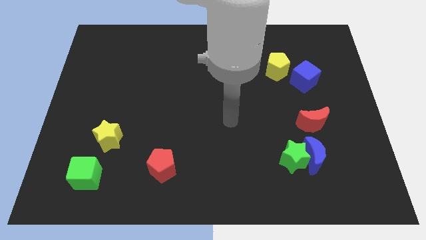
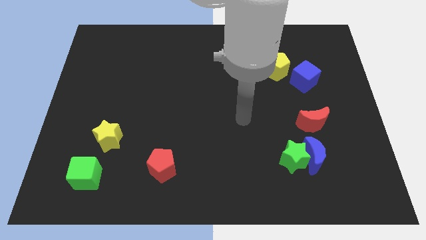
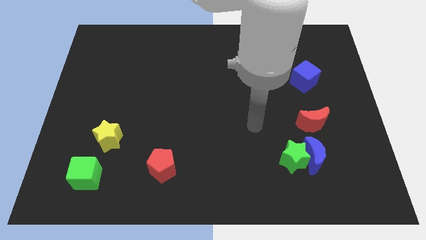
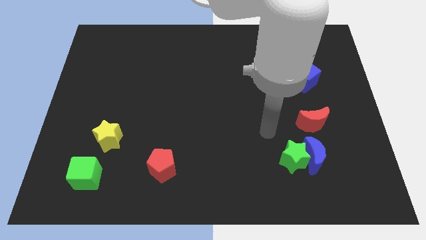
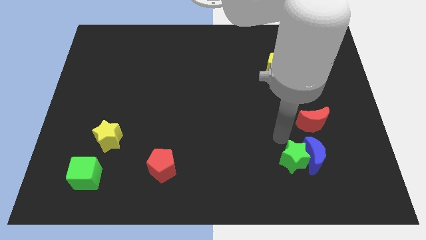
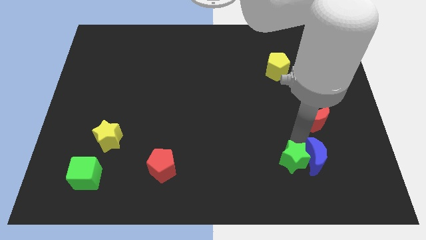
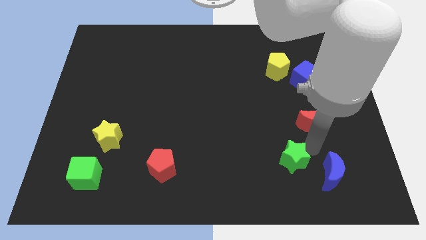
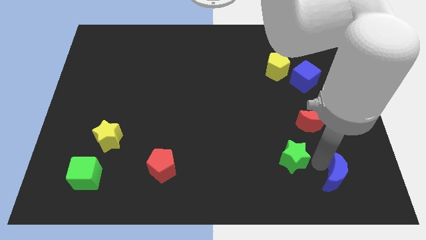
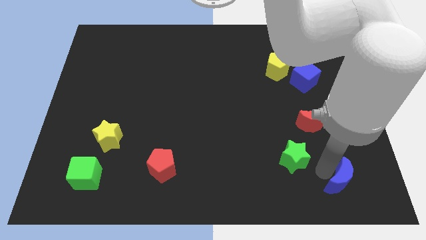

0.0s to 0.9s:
separate the green star from the blue moon

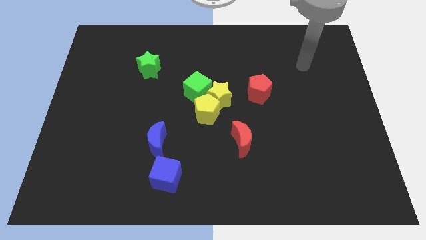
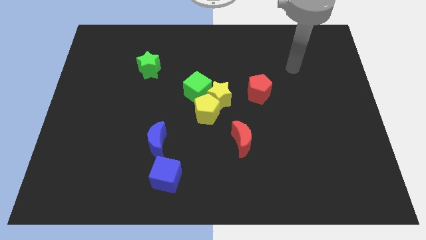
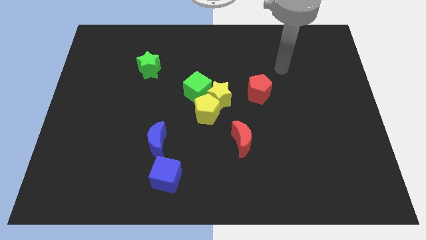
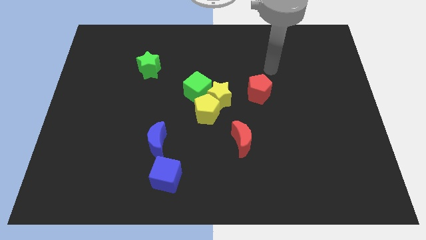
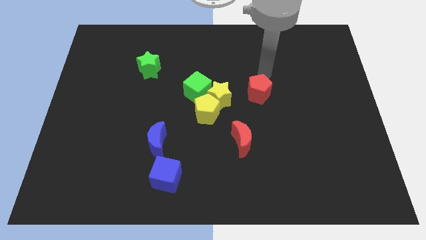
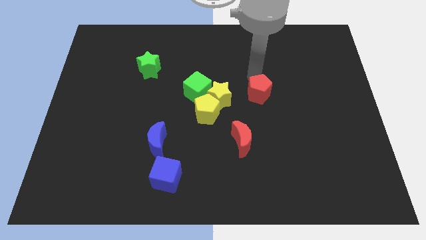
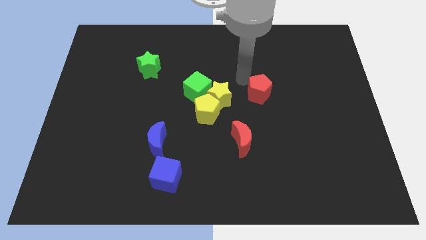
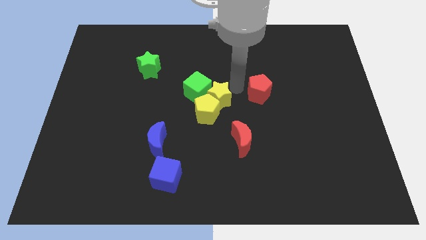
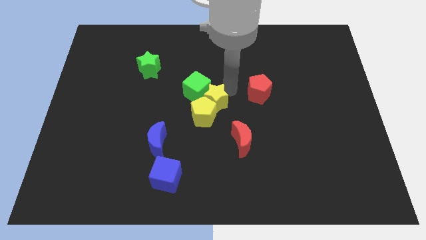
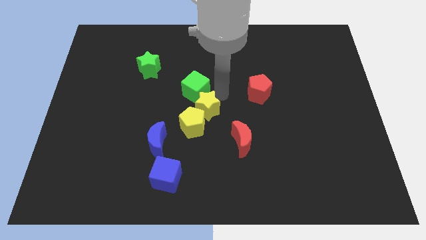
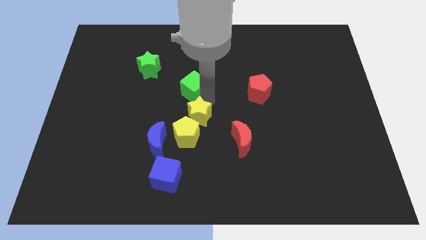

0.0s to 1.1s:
move the yellow pentagon away from the yellow star and green cube

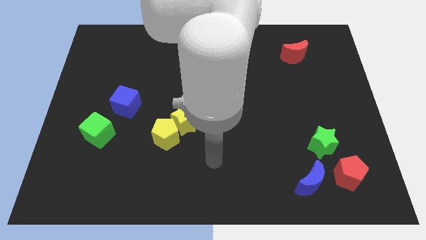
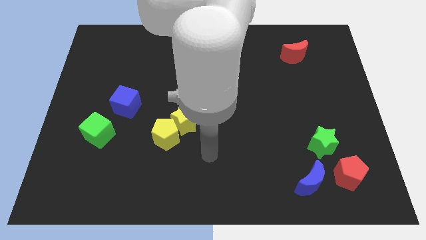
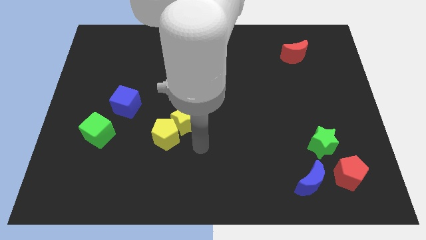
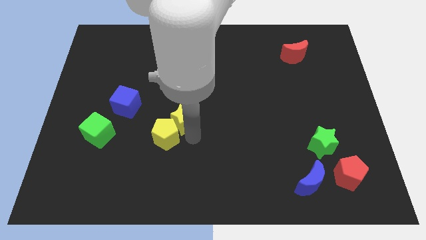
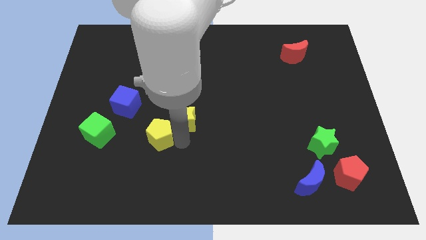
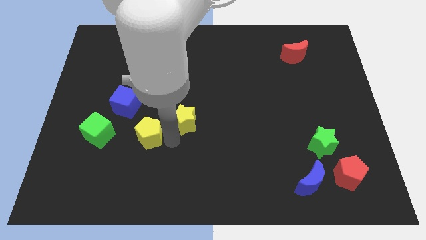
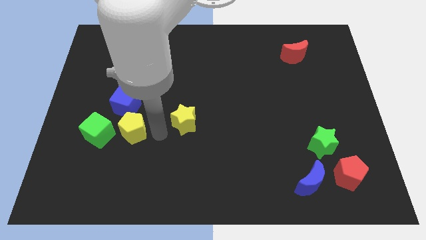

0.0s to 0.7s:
move the yellow star away from the yellow pentagon

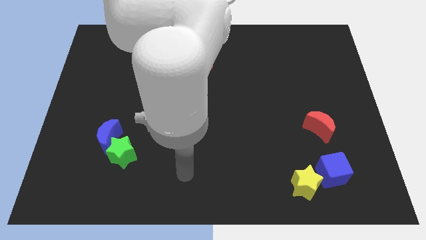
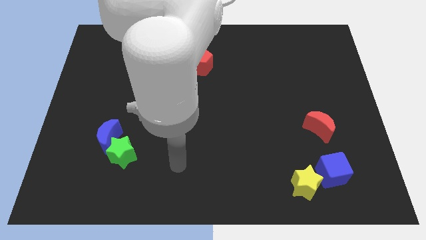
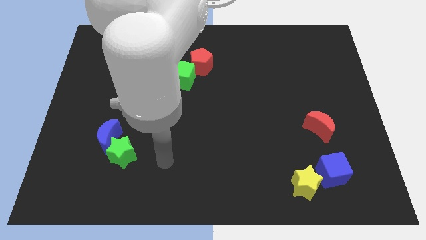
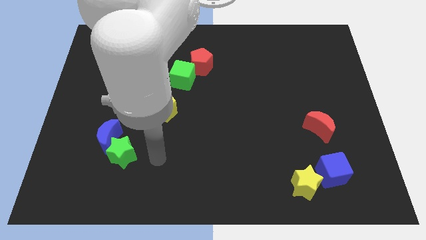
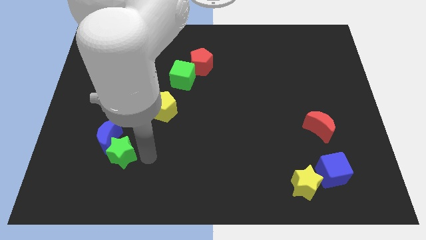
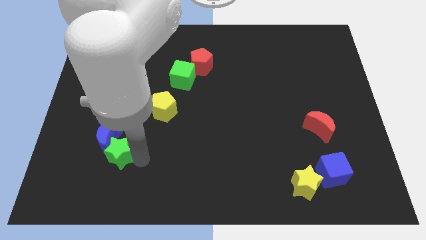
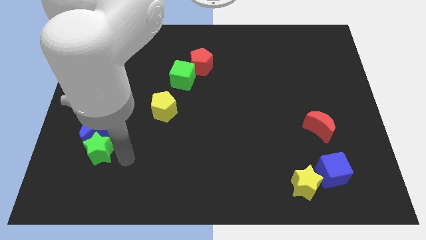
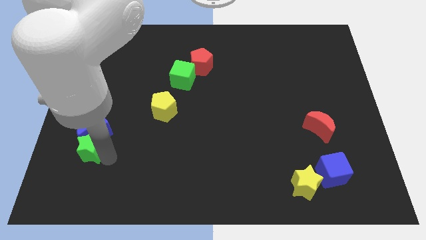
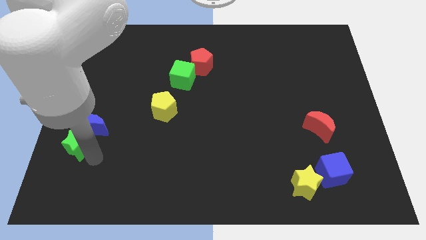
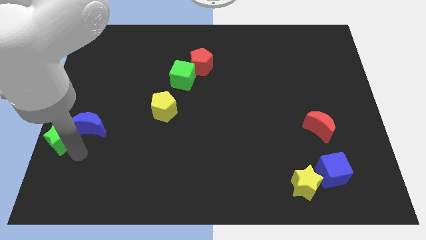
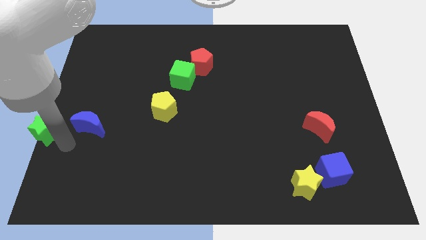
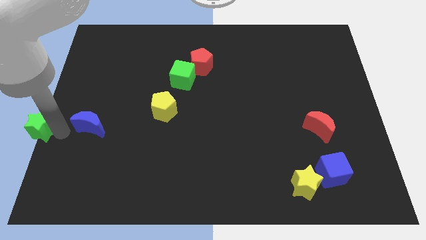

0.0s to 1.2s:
pull the blue moon apart from the green star

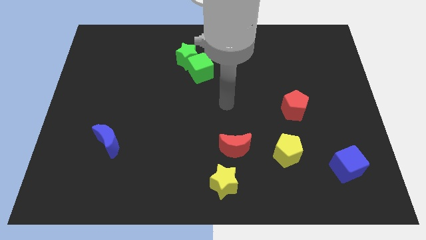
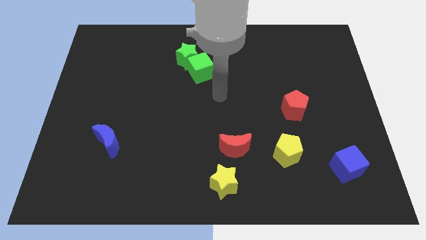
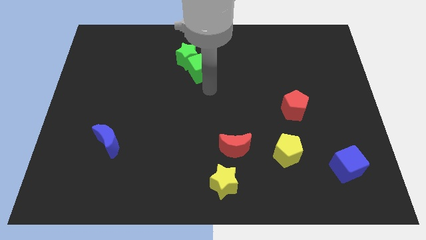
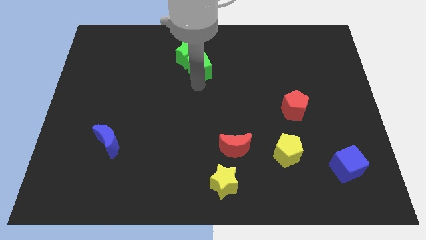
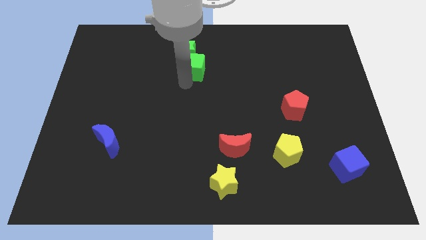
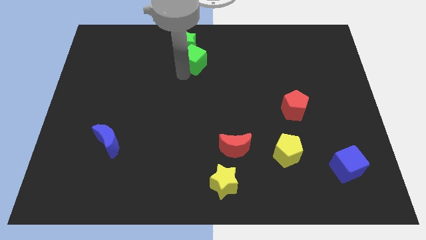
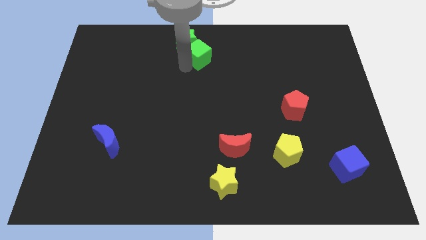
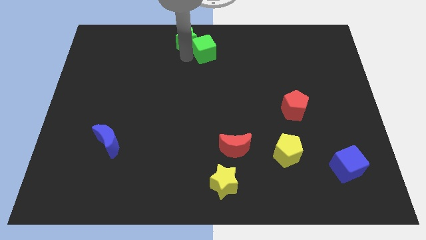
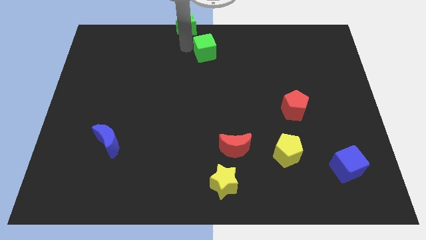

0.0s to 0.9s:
separate the green cube from the green star

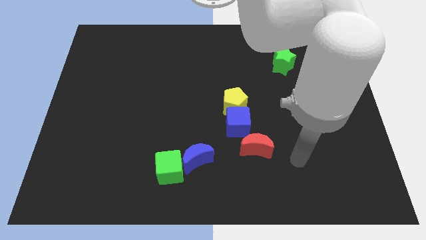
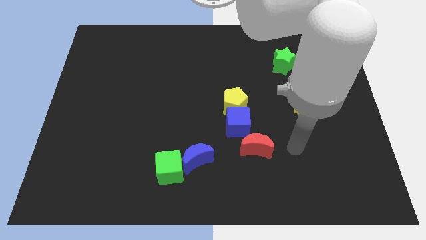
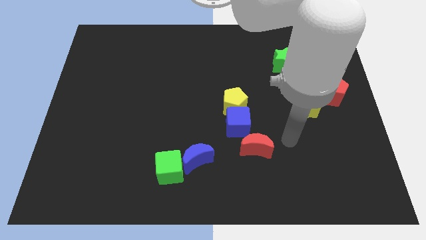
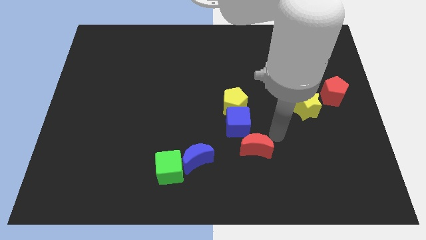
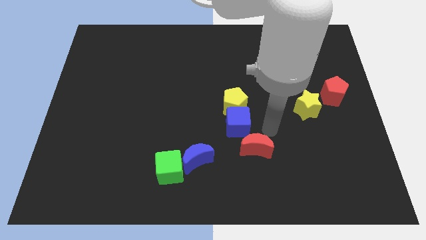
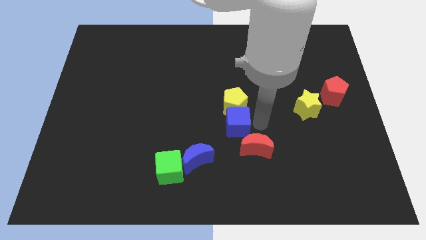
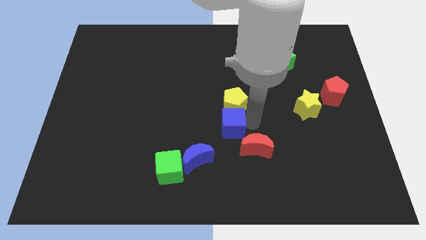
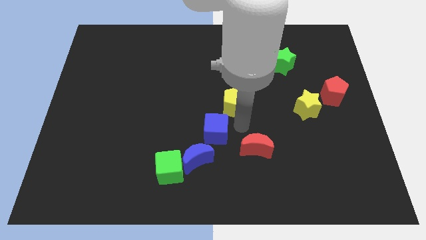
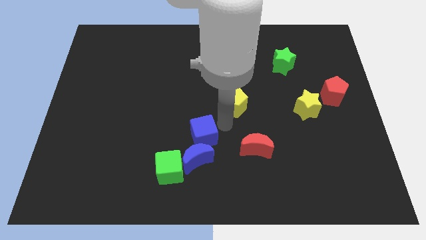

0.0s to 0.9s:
separate the yellow pentagon from the blue cube

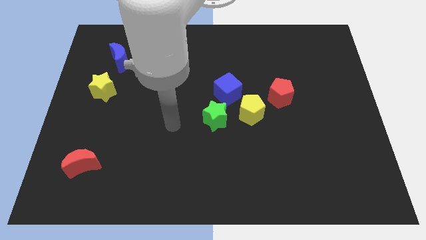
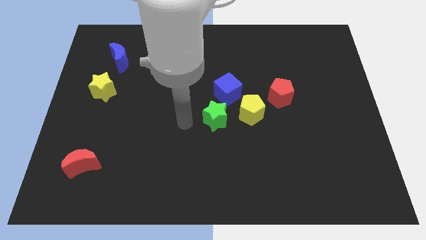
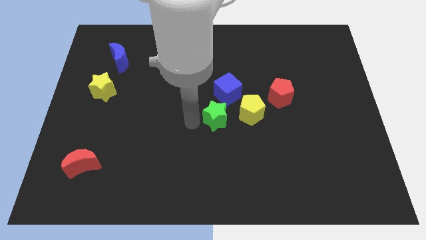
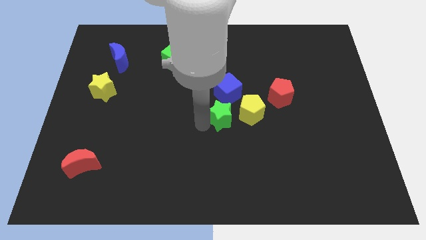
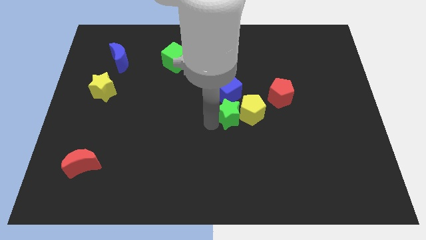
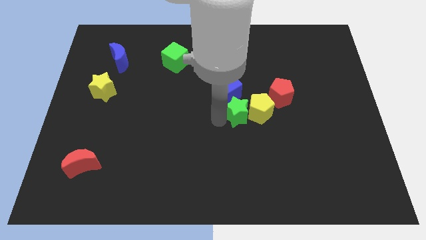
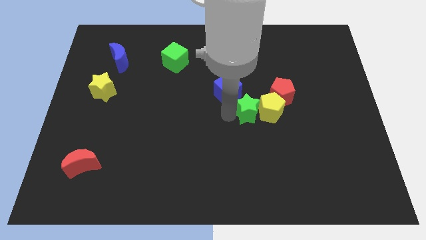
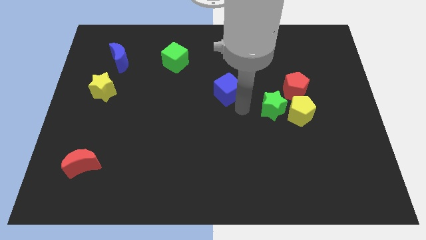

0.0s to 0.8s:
separate the blue cube from the yellow pentagon and green star

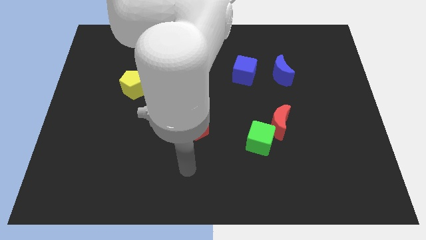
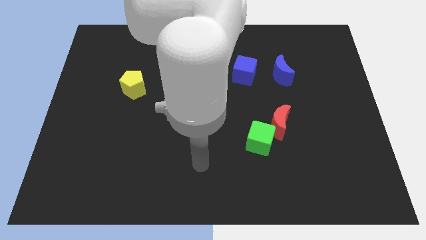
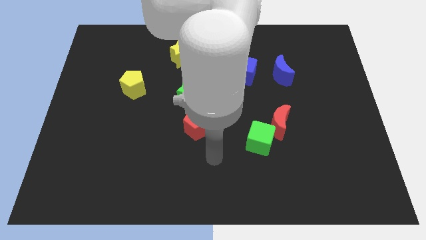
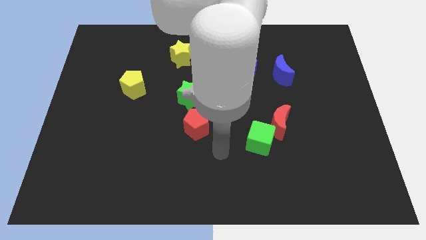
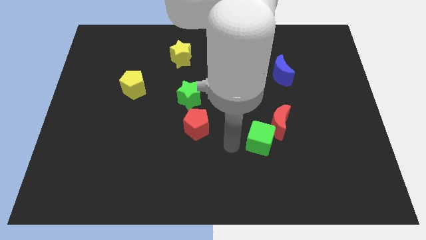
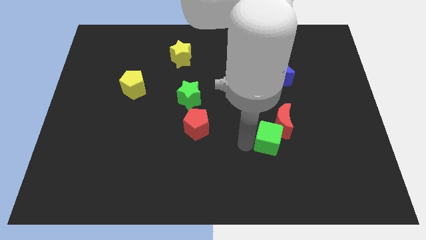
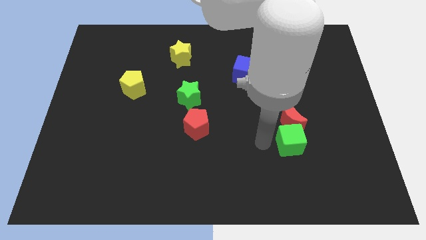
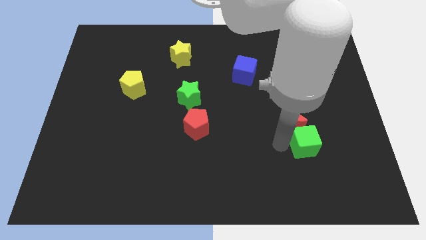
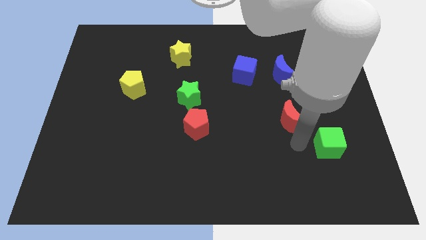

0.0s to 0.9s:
separate the red moon from the green cube

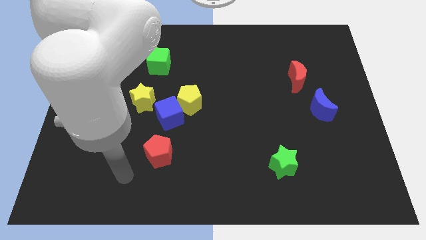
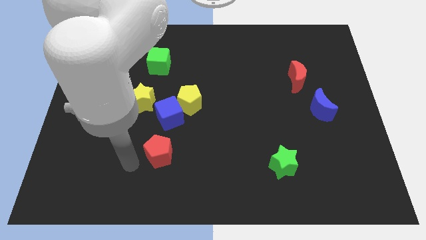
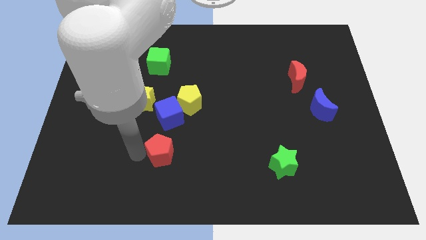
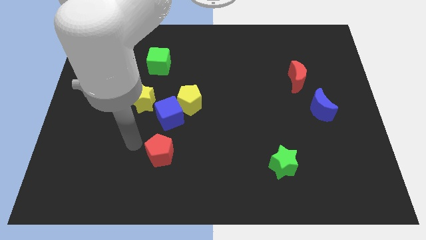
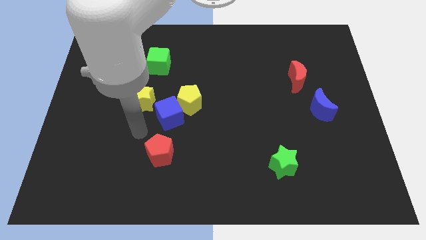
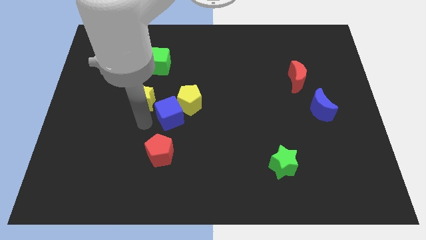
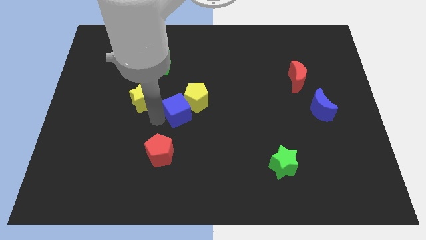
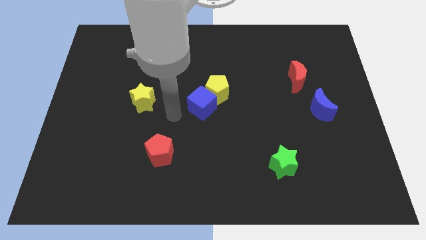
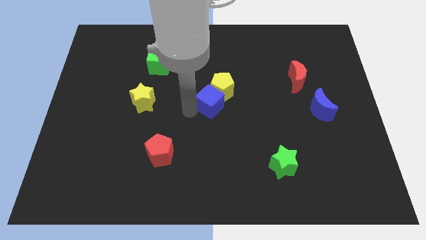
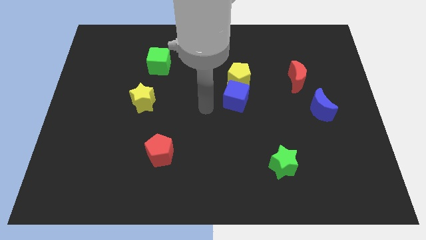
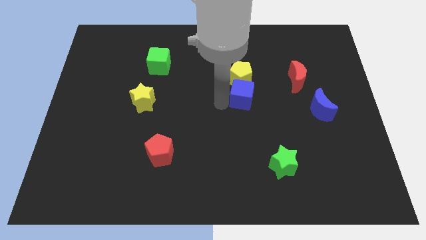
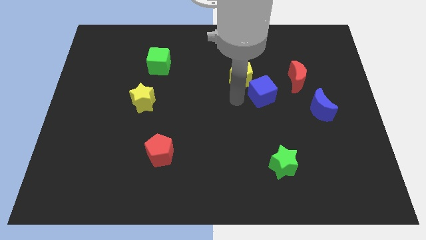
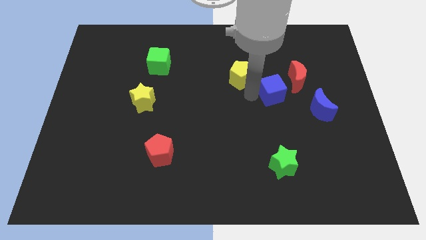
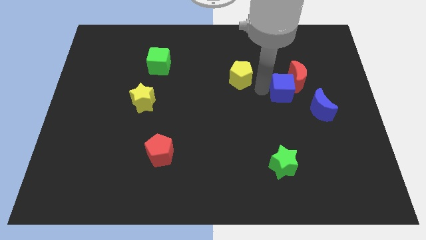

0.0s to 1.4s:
pull the yellow pentagon apart from the blue cube

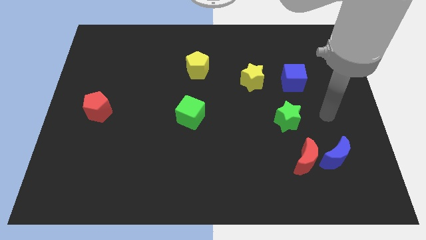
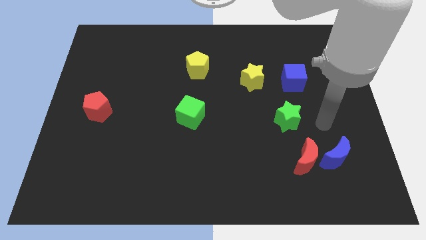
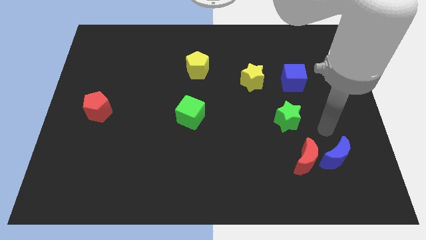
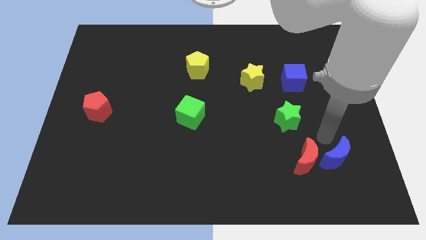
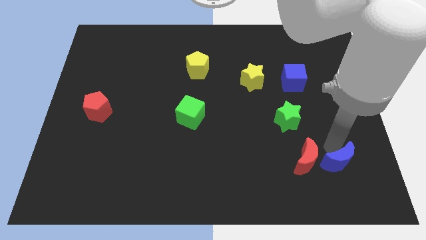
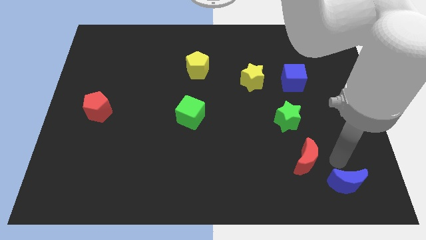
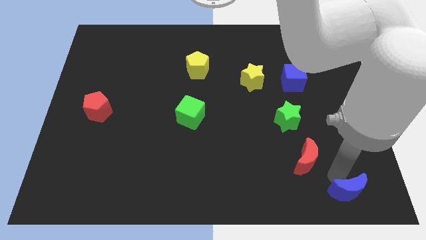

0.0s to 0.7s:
pull the red moon apart from the blue moon
